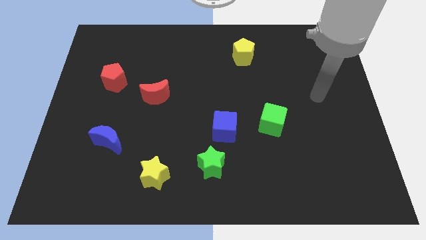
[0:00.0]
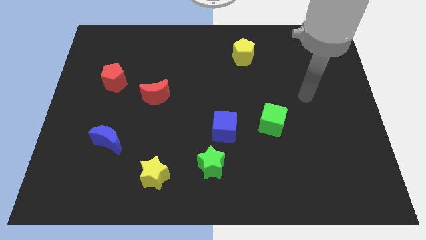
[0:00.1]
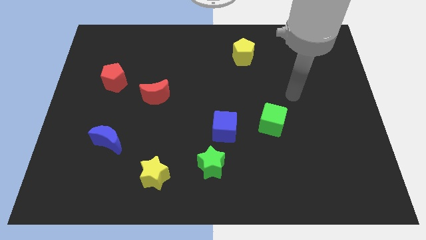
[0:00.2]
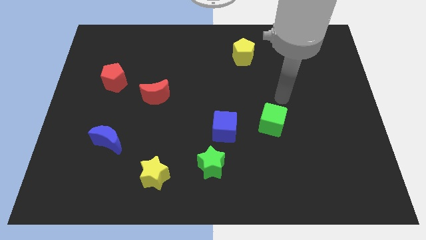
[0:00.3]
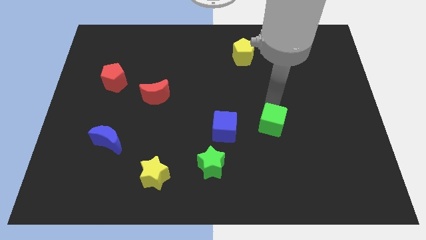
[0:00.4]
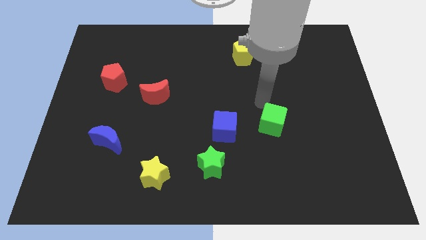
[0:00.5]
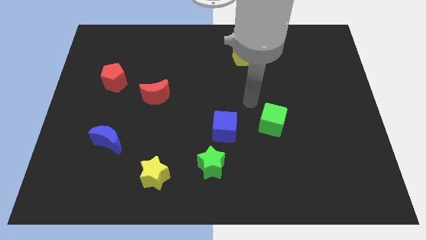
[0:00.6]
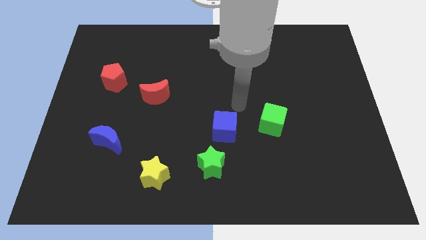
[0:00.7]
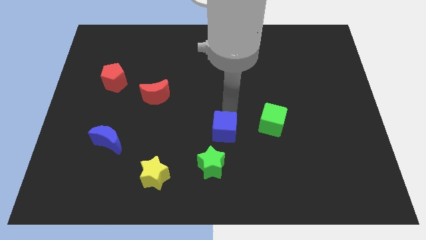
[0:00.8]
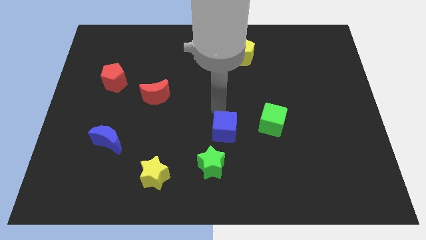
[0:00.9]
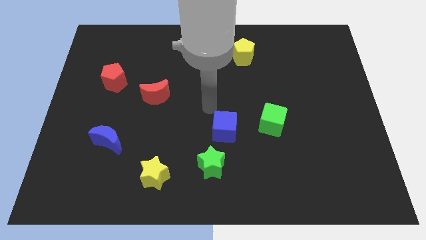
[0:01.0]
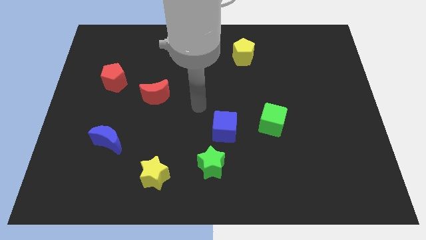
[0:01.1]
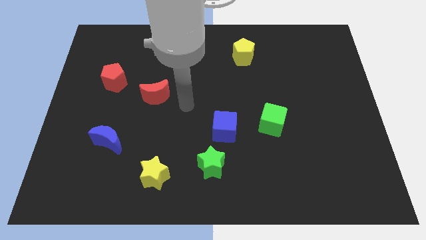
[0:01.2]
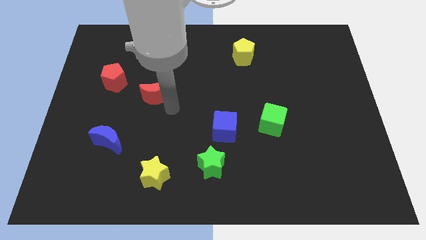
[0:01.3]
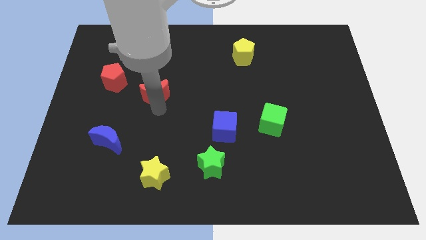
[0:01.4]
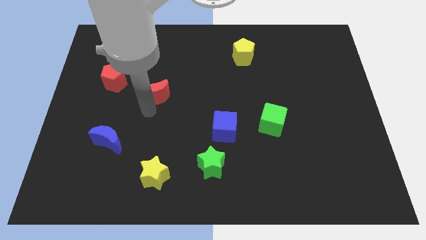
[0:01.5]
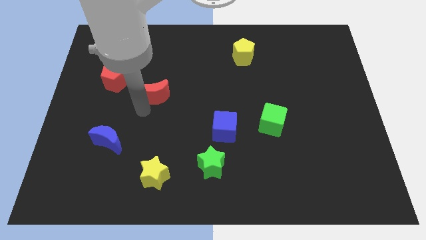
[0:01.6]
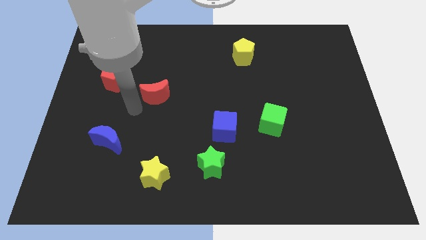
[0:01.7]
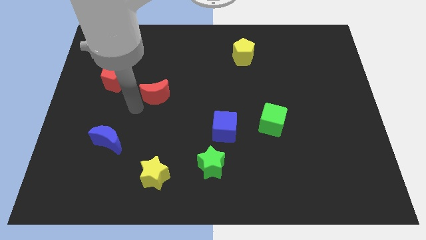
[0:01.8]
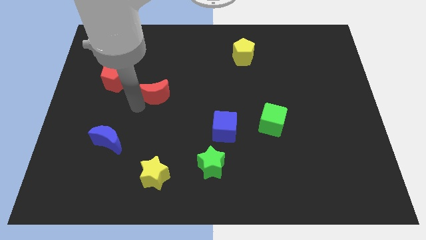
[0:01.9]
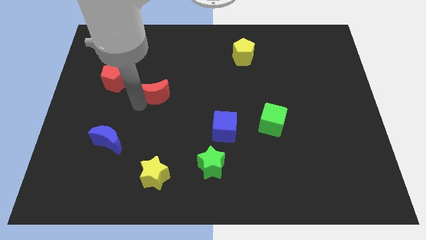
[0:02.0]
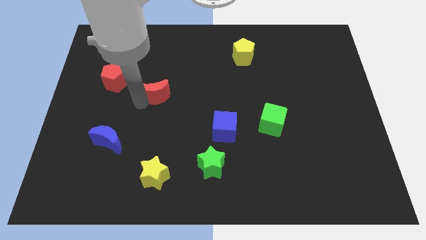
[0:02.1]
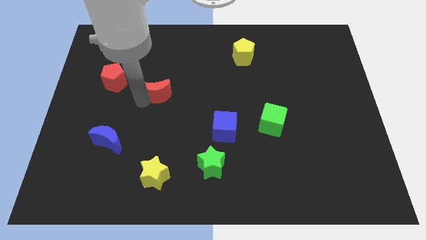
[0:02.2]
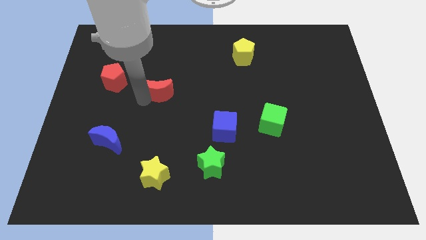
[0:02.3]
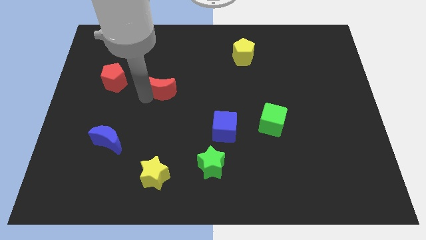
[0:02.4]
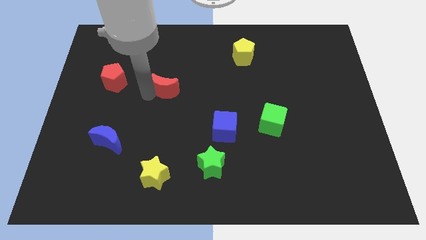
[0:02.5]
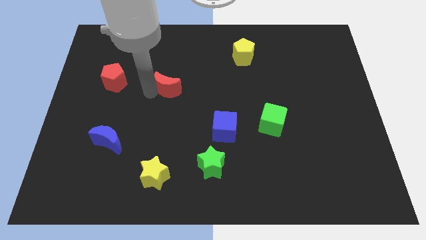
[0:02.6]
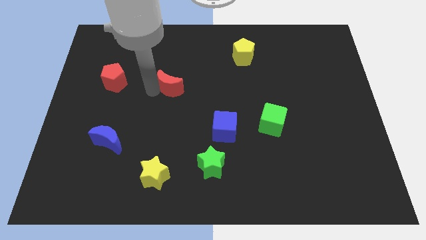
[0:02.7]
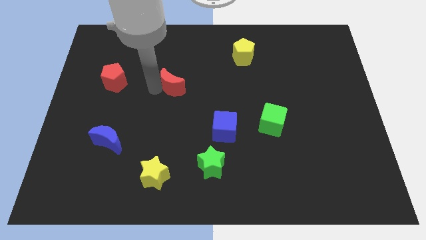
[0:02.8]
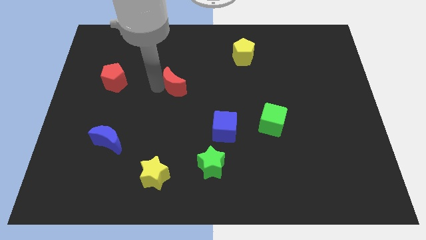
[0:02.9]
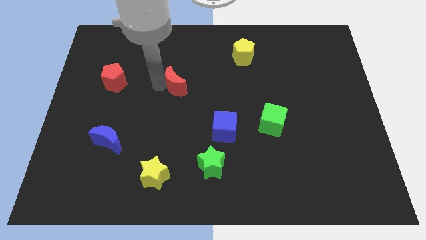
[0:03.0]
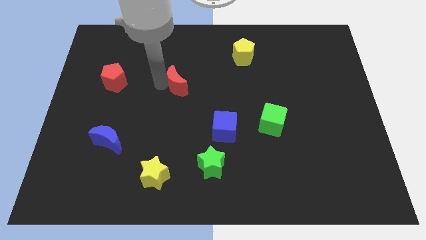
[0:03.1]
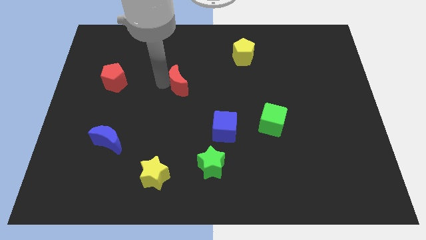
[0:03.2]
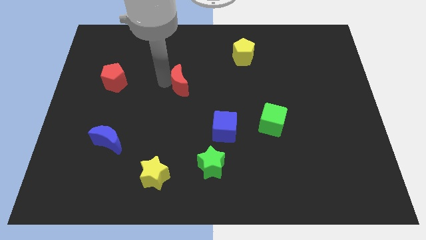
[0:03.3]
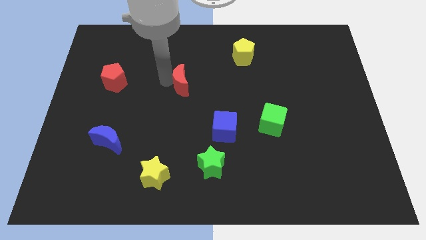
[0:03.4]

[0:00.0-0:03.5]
push the red moon somewhat upwards and to the right diagonally

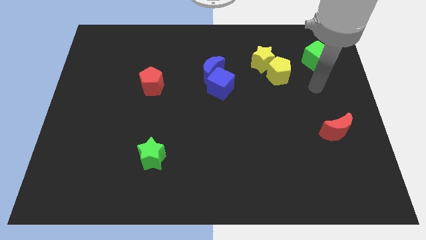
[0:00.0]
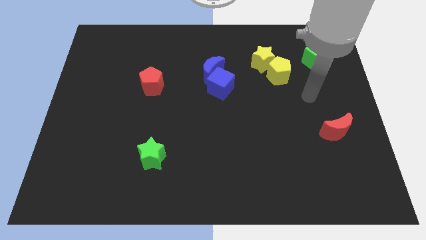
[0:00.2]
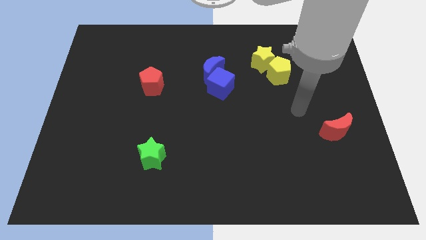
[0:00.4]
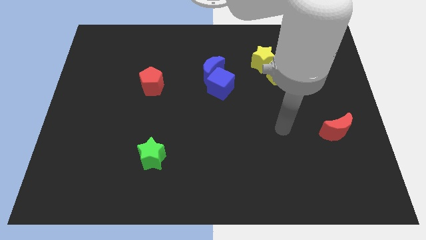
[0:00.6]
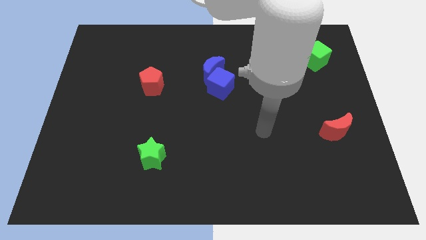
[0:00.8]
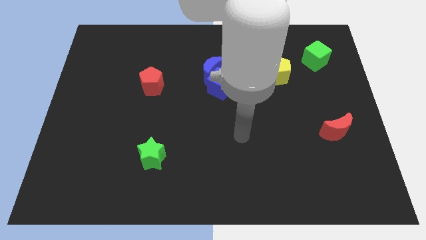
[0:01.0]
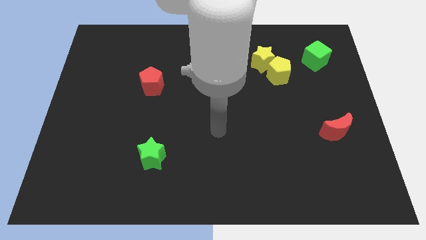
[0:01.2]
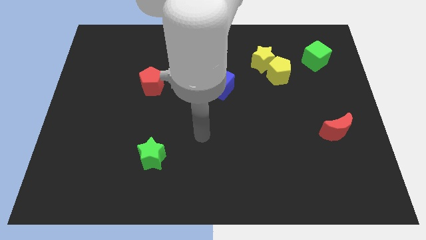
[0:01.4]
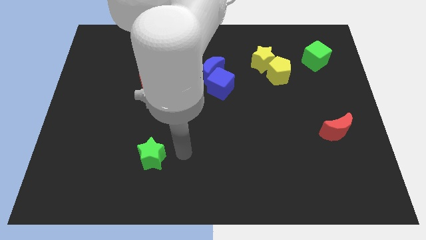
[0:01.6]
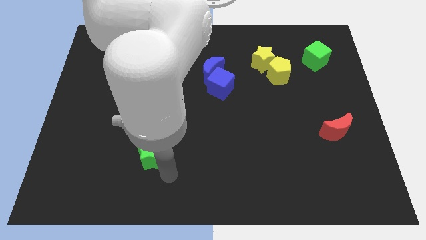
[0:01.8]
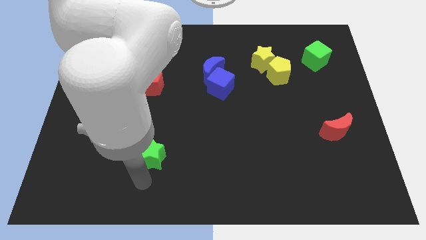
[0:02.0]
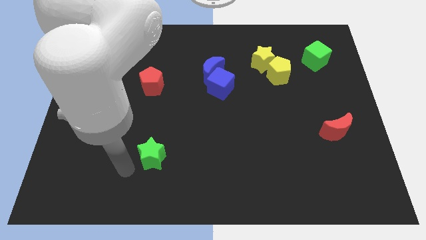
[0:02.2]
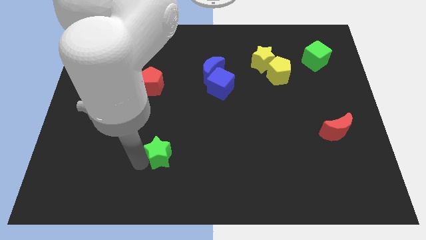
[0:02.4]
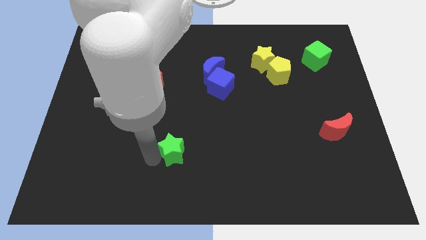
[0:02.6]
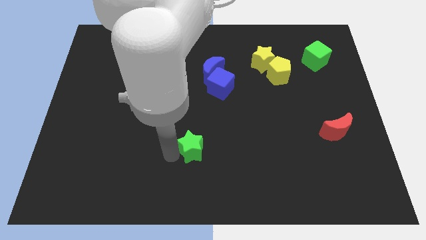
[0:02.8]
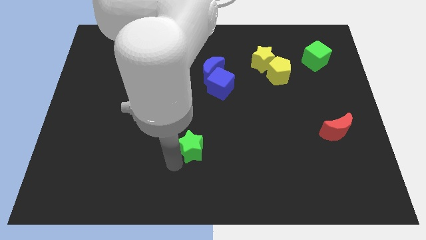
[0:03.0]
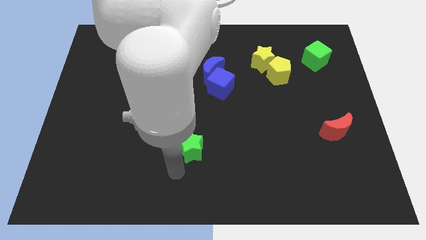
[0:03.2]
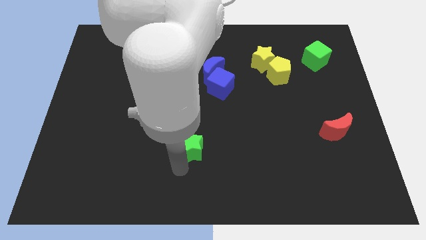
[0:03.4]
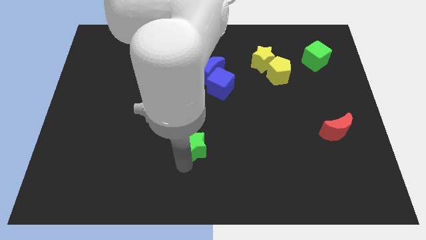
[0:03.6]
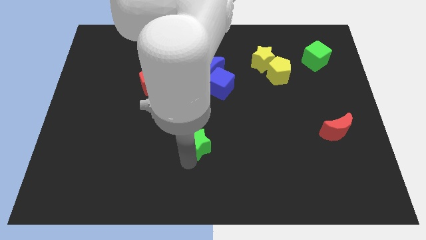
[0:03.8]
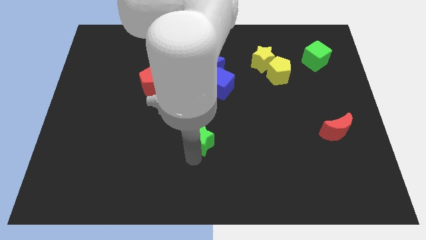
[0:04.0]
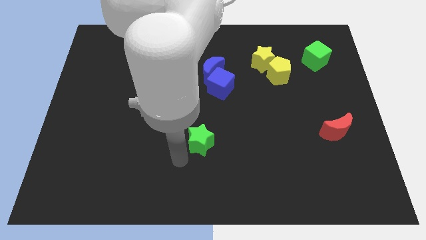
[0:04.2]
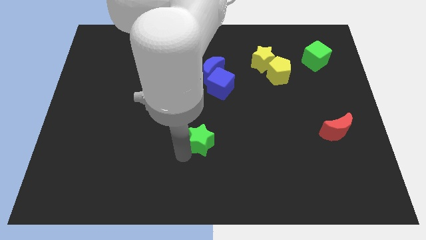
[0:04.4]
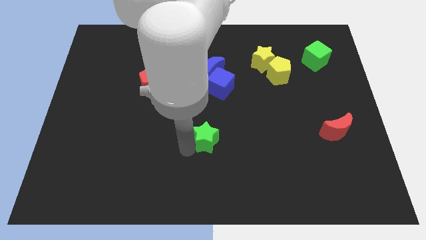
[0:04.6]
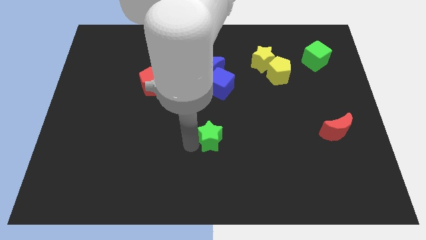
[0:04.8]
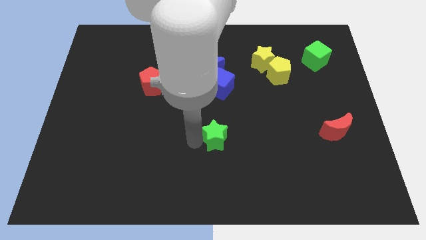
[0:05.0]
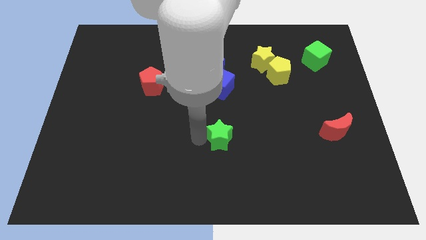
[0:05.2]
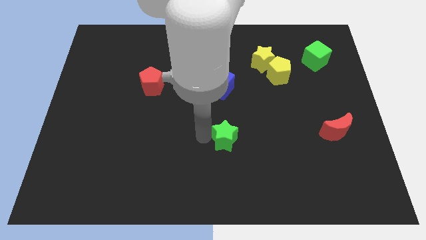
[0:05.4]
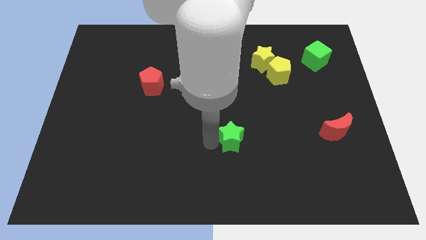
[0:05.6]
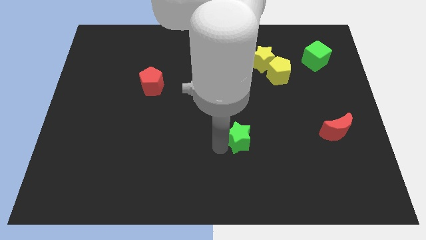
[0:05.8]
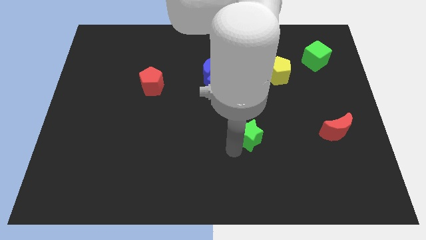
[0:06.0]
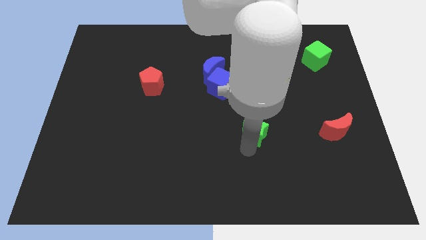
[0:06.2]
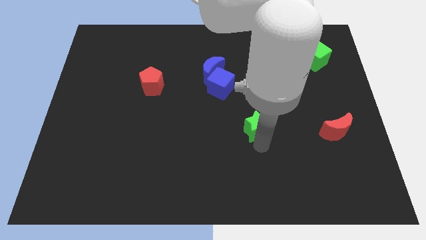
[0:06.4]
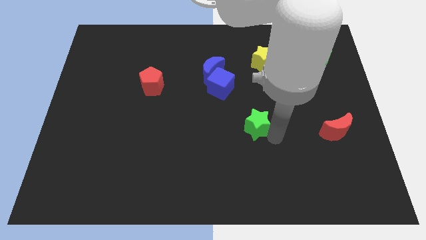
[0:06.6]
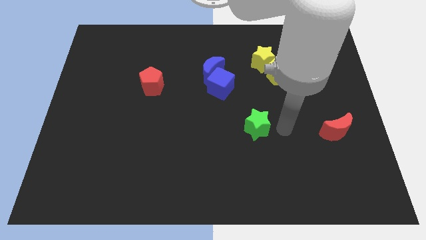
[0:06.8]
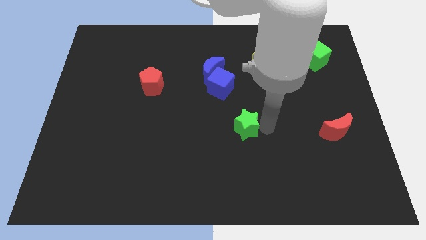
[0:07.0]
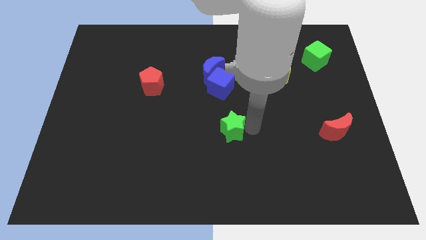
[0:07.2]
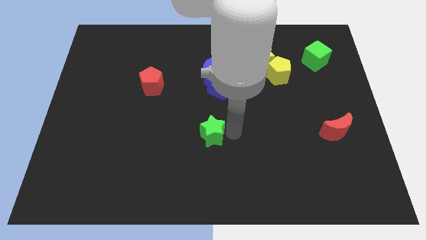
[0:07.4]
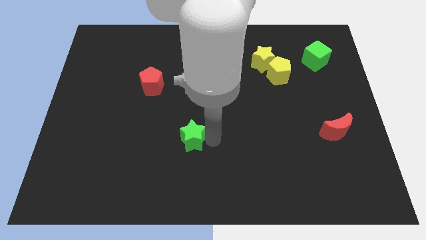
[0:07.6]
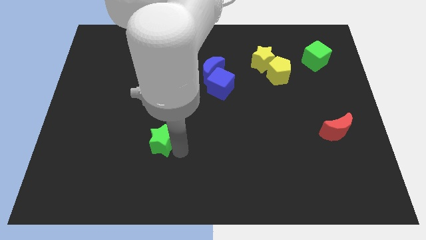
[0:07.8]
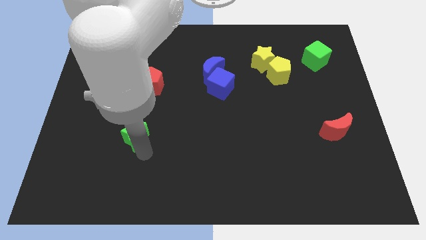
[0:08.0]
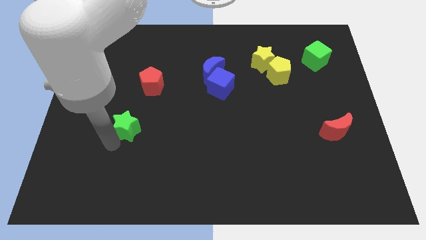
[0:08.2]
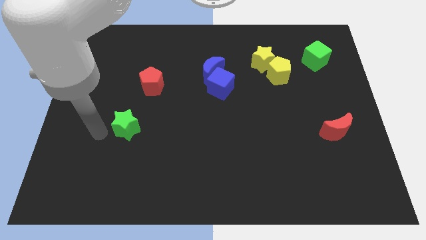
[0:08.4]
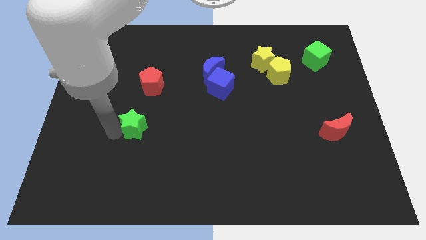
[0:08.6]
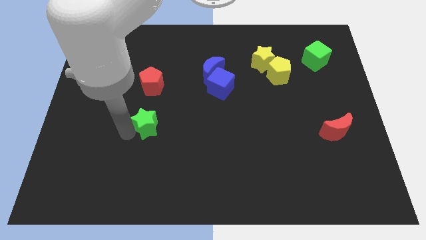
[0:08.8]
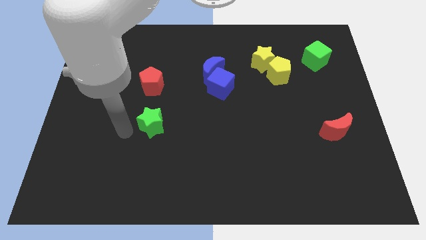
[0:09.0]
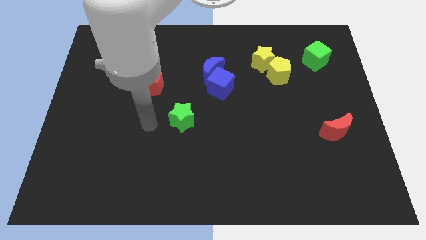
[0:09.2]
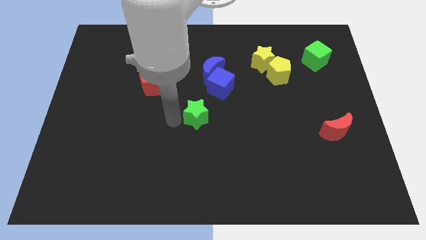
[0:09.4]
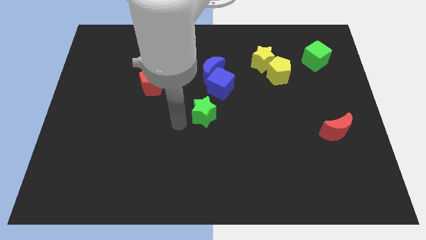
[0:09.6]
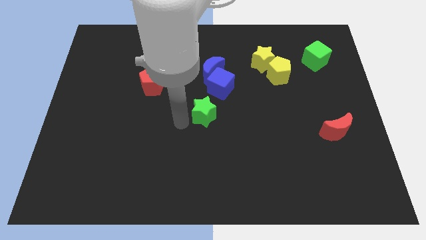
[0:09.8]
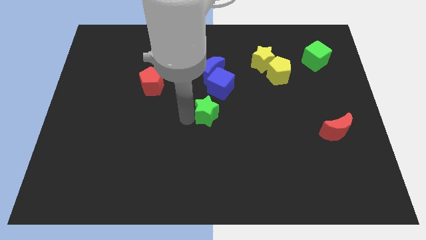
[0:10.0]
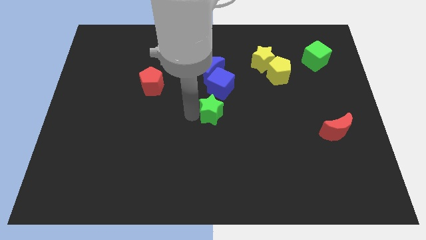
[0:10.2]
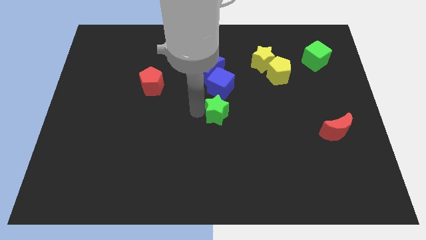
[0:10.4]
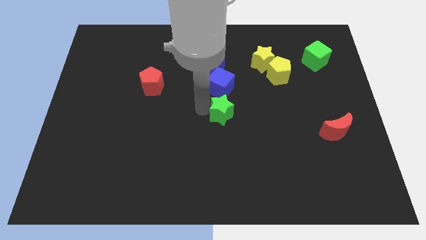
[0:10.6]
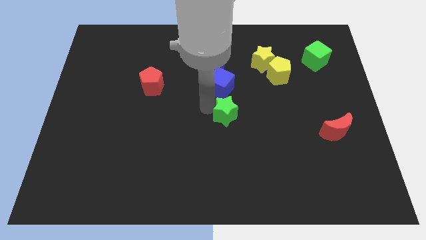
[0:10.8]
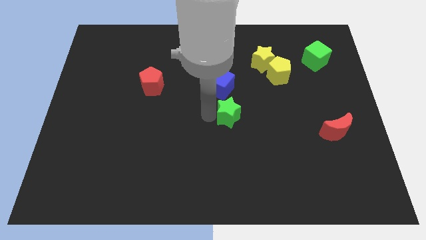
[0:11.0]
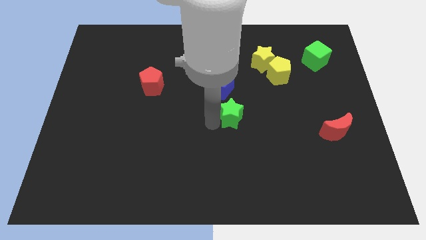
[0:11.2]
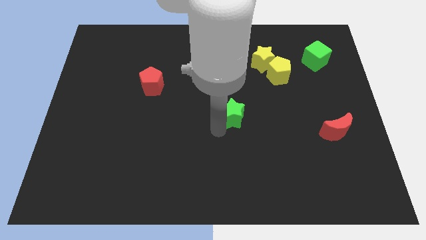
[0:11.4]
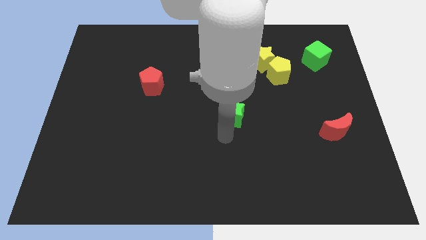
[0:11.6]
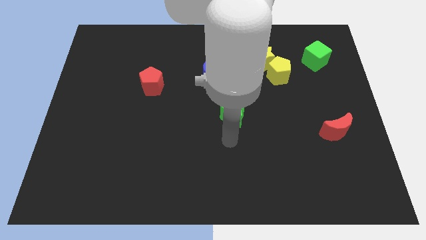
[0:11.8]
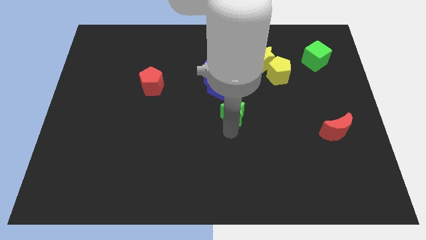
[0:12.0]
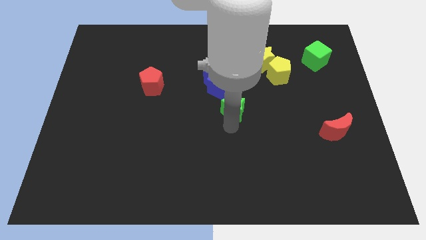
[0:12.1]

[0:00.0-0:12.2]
slide the green star up and right
